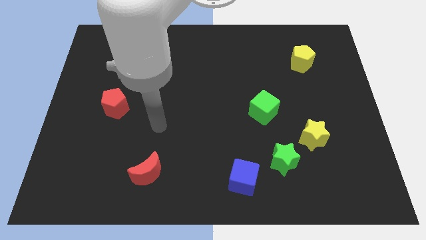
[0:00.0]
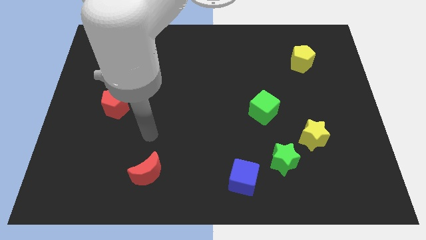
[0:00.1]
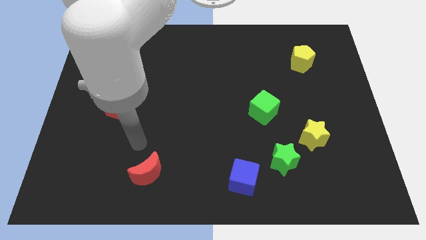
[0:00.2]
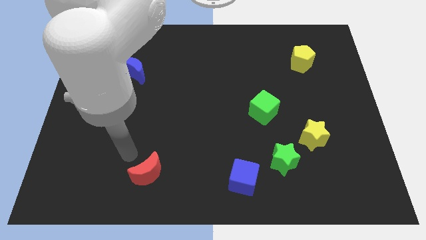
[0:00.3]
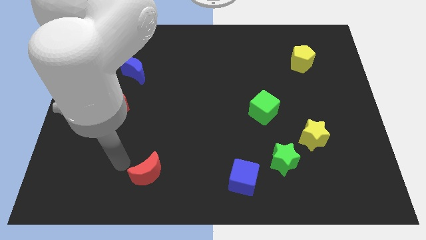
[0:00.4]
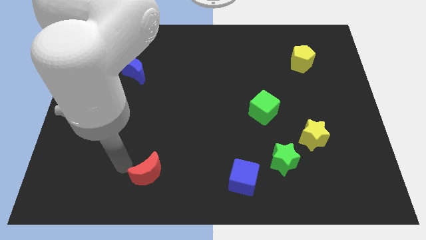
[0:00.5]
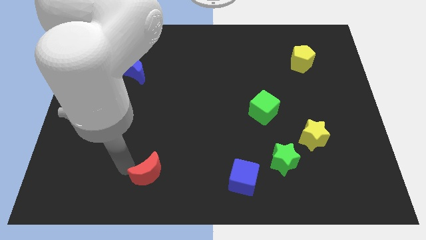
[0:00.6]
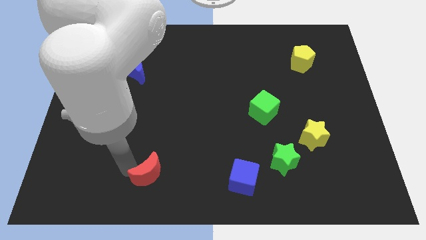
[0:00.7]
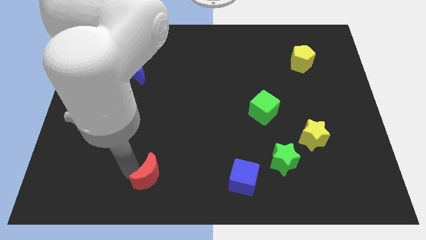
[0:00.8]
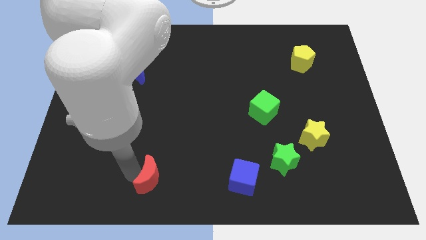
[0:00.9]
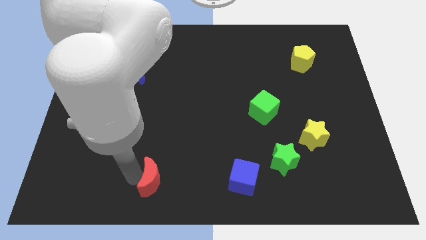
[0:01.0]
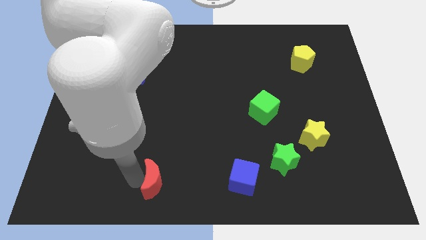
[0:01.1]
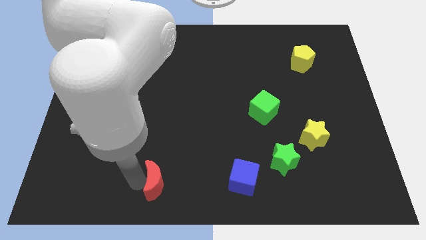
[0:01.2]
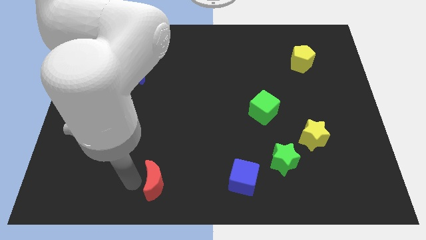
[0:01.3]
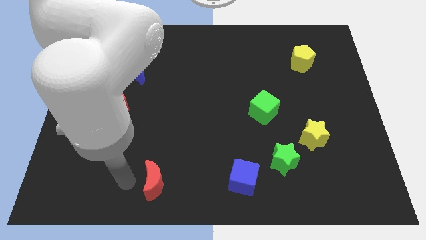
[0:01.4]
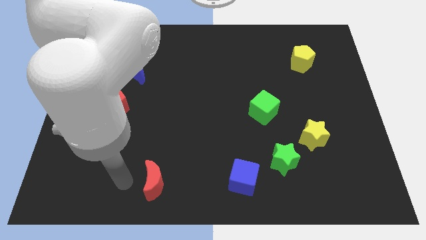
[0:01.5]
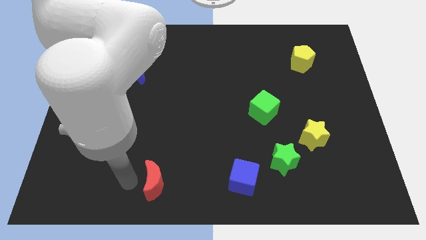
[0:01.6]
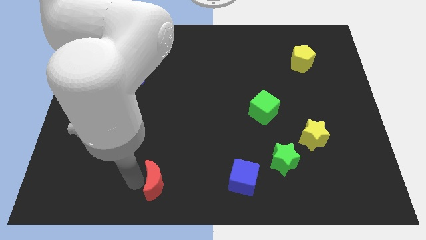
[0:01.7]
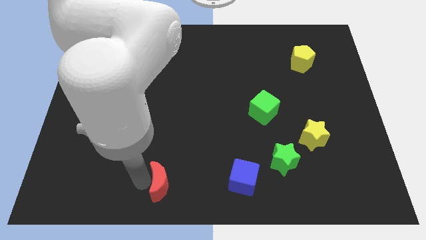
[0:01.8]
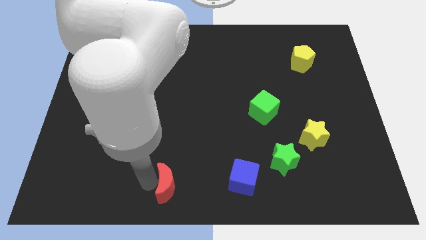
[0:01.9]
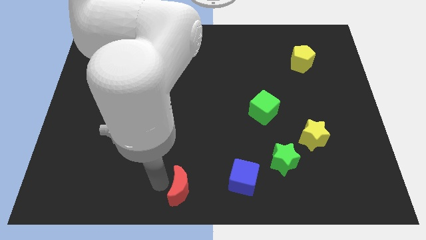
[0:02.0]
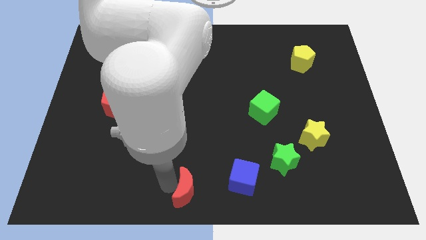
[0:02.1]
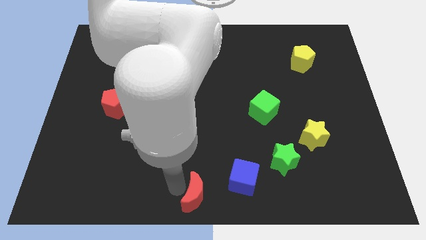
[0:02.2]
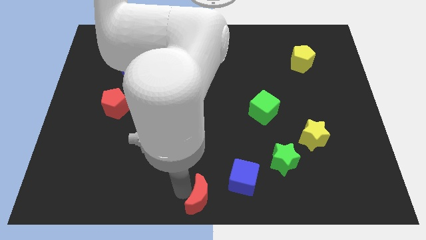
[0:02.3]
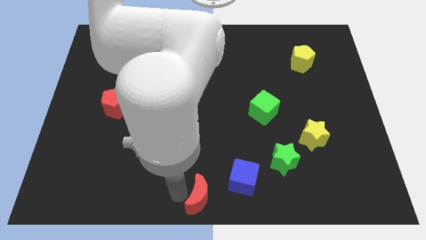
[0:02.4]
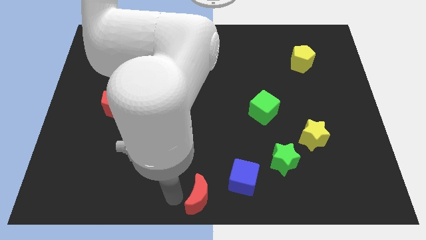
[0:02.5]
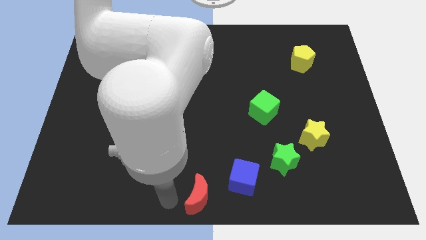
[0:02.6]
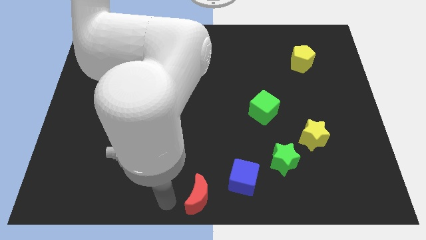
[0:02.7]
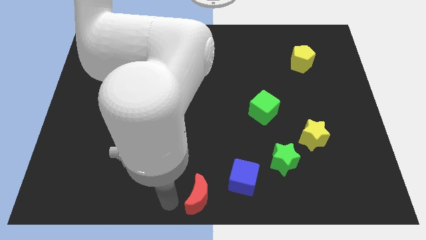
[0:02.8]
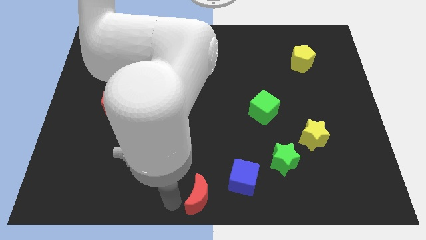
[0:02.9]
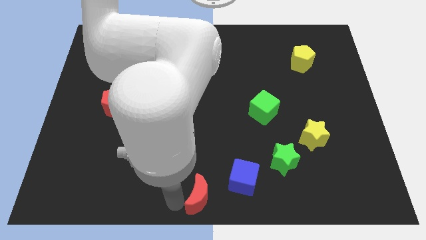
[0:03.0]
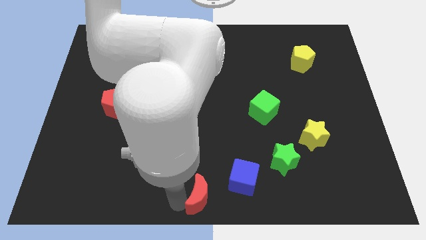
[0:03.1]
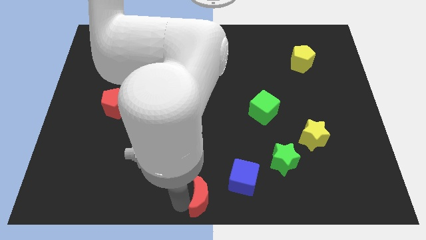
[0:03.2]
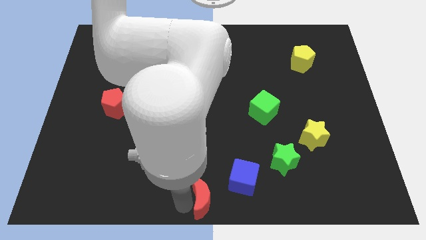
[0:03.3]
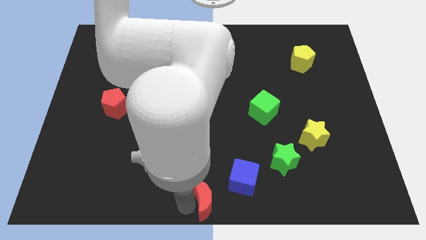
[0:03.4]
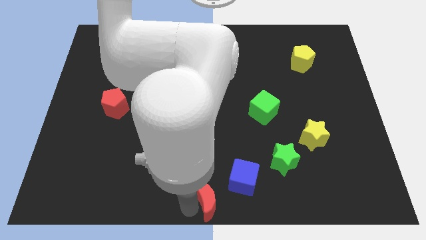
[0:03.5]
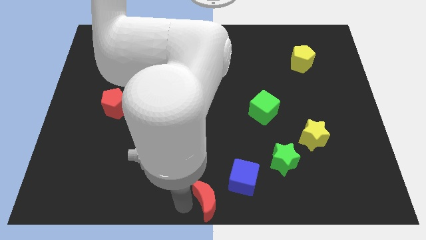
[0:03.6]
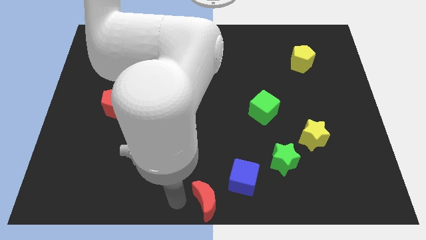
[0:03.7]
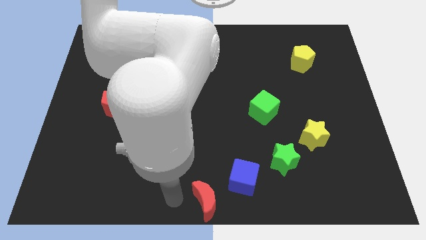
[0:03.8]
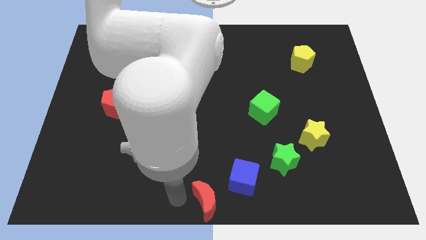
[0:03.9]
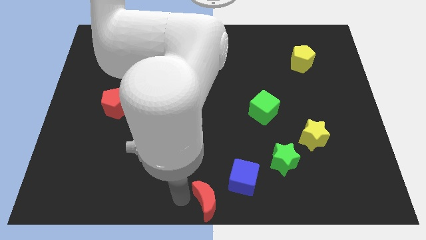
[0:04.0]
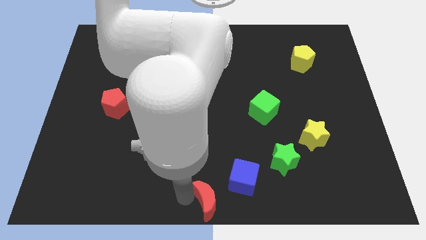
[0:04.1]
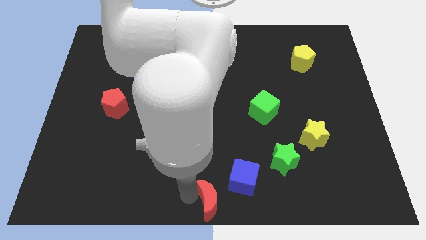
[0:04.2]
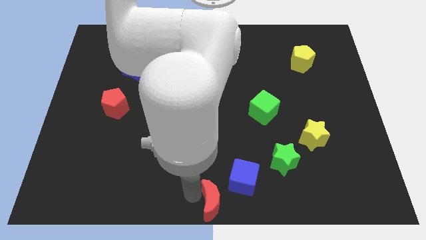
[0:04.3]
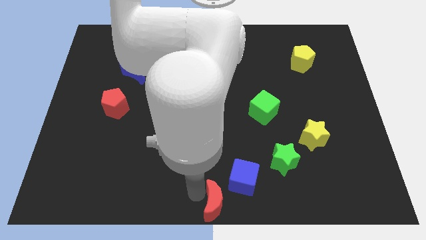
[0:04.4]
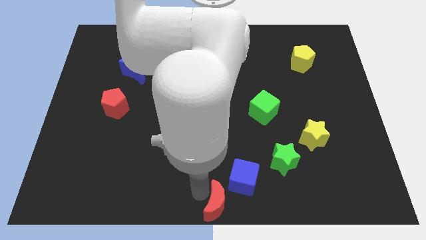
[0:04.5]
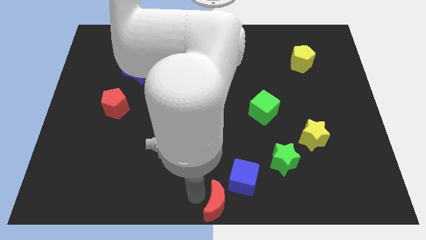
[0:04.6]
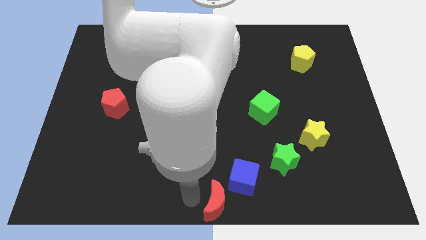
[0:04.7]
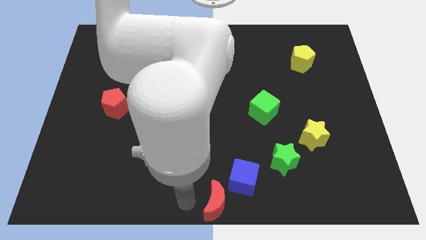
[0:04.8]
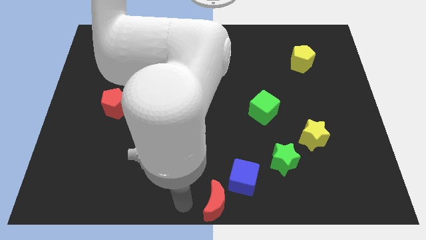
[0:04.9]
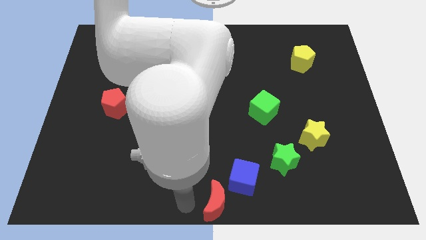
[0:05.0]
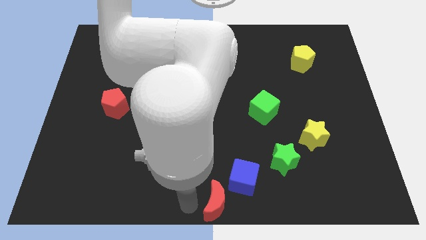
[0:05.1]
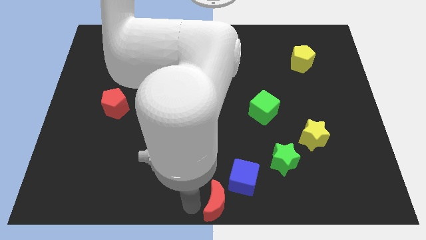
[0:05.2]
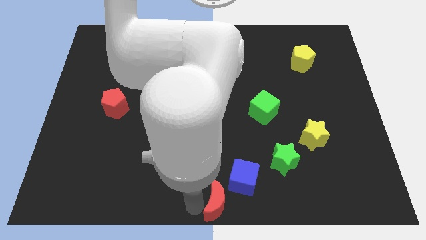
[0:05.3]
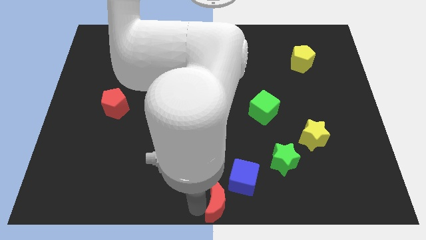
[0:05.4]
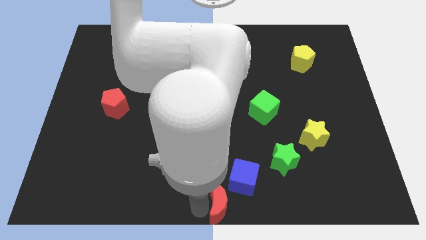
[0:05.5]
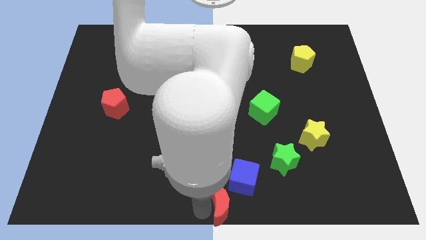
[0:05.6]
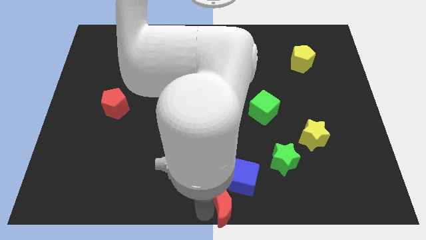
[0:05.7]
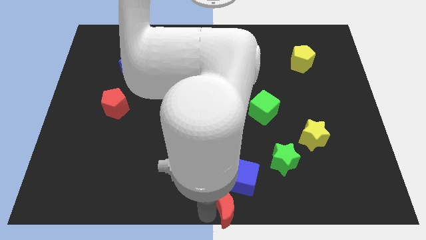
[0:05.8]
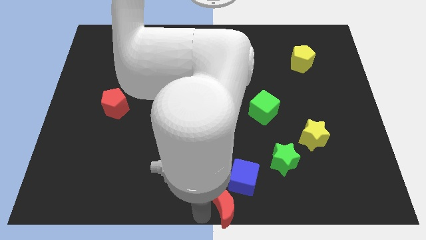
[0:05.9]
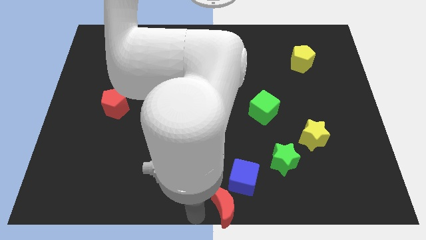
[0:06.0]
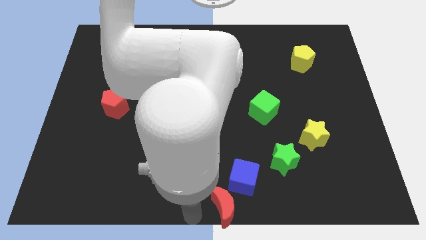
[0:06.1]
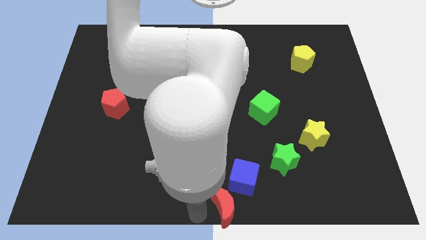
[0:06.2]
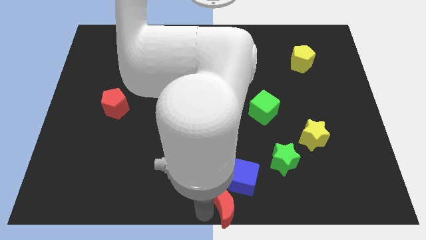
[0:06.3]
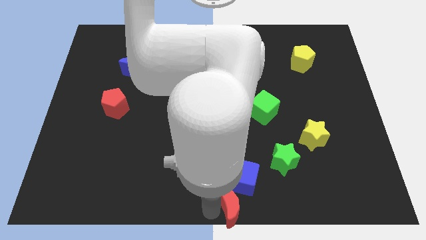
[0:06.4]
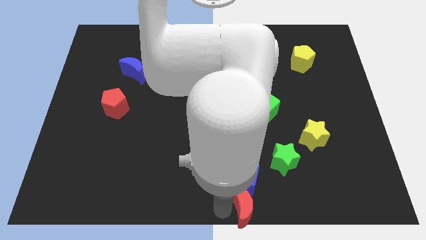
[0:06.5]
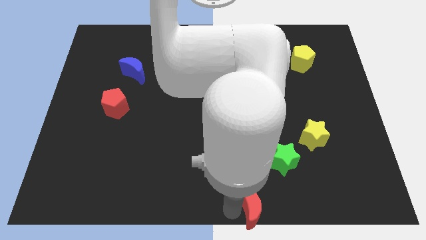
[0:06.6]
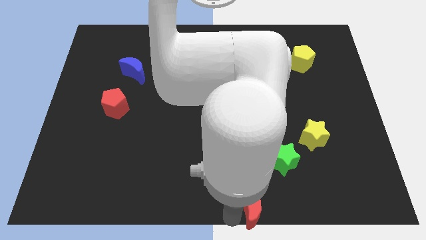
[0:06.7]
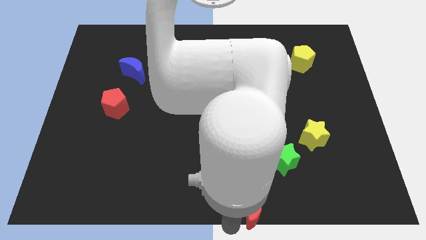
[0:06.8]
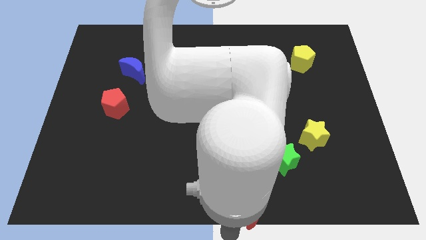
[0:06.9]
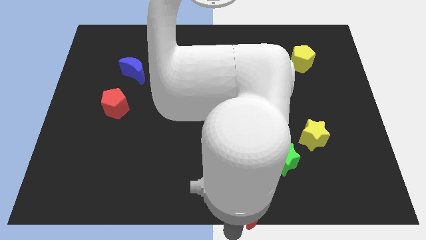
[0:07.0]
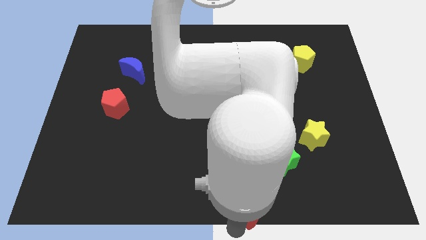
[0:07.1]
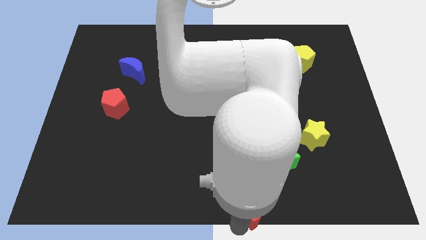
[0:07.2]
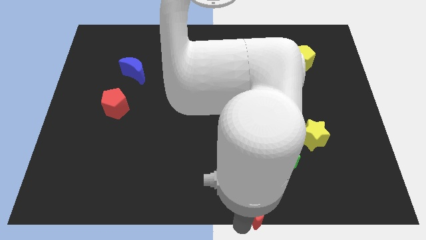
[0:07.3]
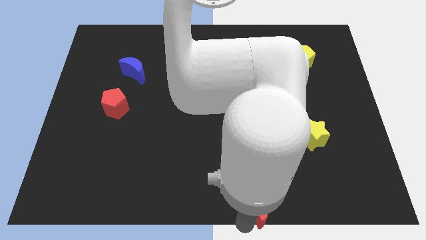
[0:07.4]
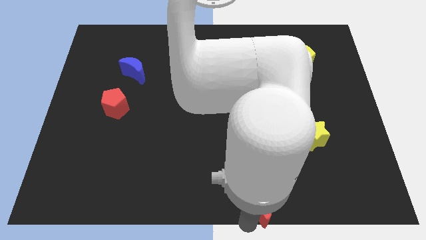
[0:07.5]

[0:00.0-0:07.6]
slide the red moon to the right

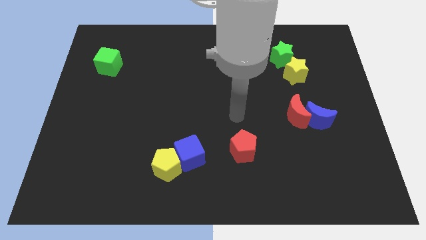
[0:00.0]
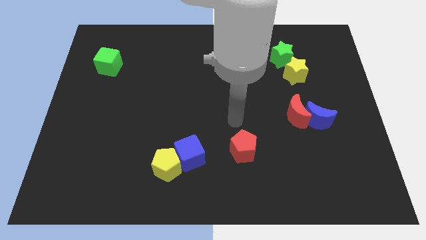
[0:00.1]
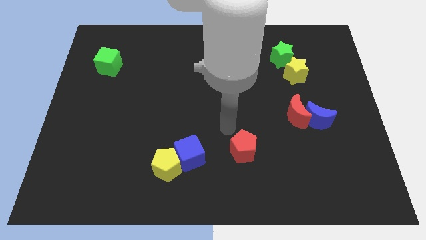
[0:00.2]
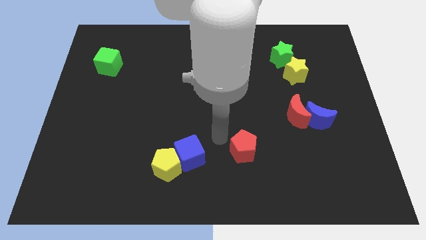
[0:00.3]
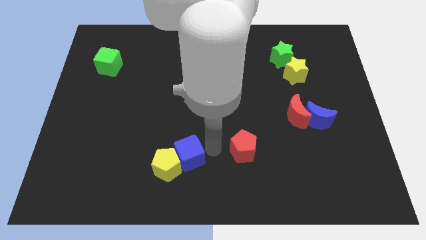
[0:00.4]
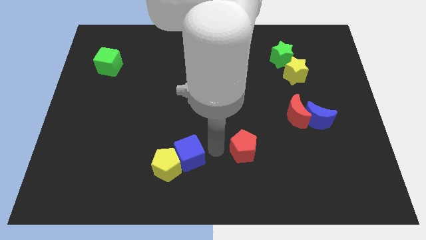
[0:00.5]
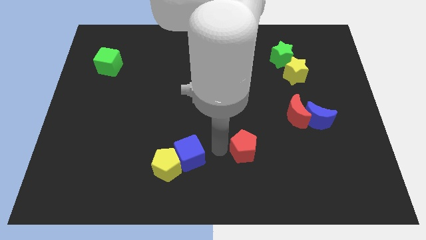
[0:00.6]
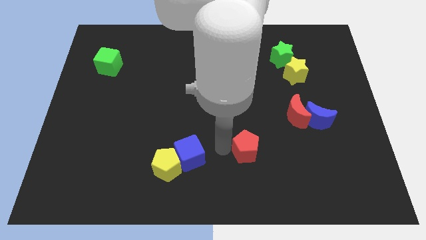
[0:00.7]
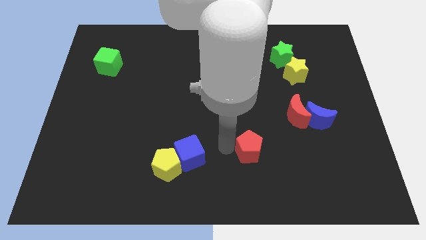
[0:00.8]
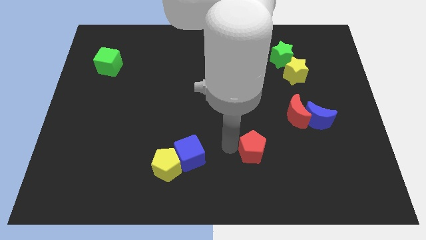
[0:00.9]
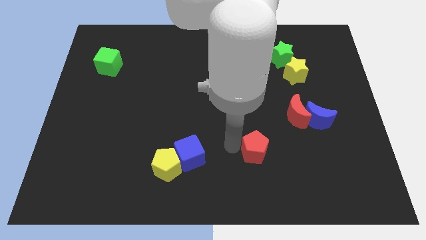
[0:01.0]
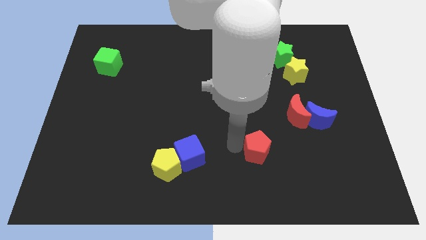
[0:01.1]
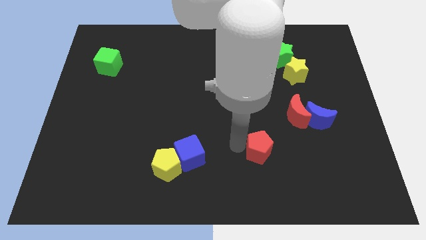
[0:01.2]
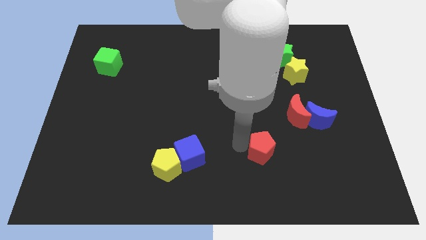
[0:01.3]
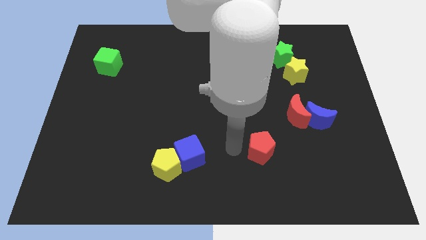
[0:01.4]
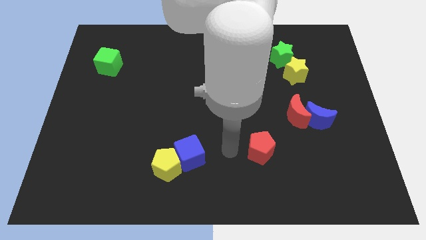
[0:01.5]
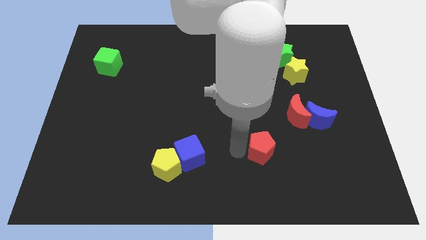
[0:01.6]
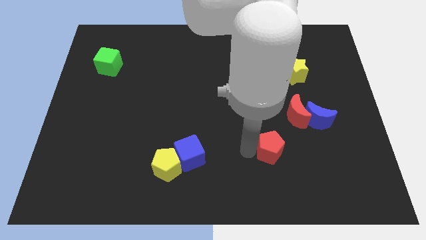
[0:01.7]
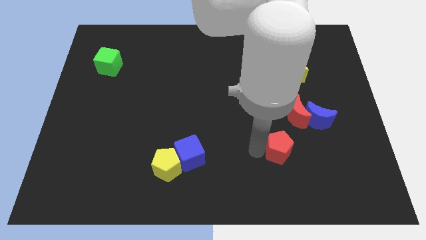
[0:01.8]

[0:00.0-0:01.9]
slightly move the red pentagon to the right
